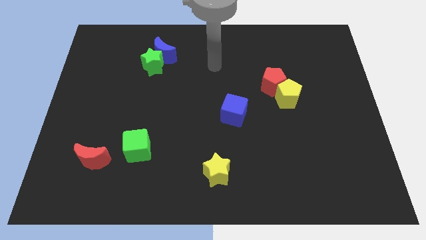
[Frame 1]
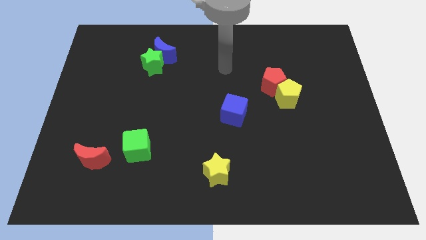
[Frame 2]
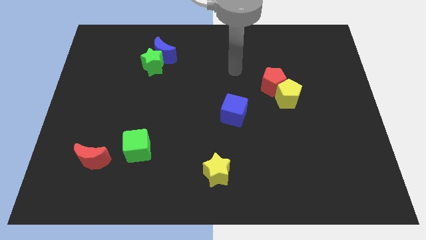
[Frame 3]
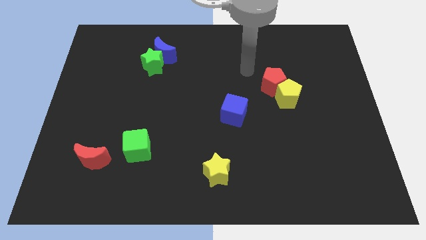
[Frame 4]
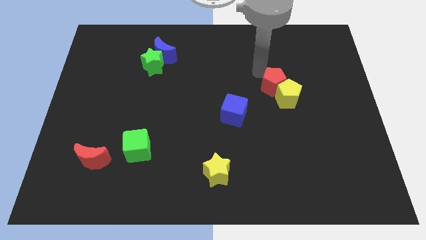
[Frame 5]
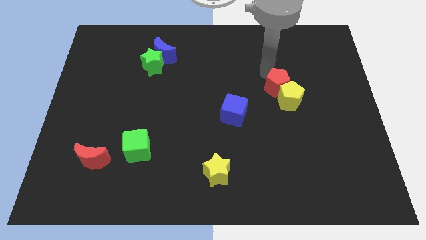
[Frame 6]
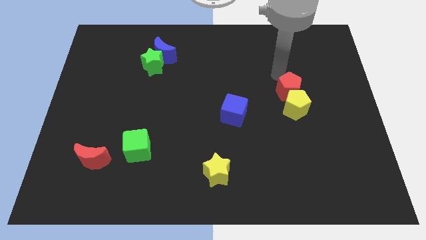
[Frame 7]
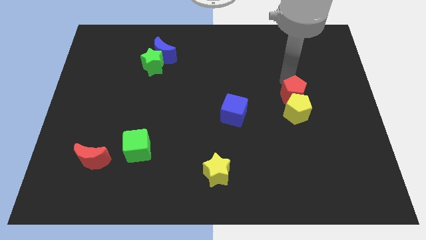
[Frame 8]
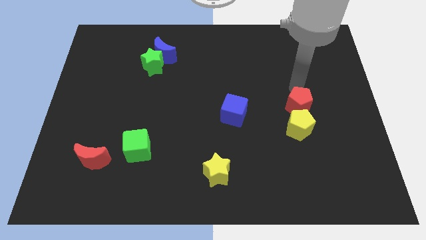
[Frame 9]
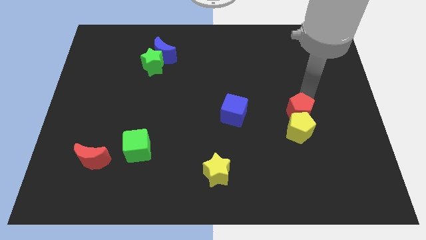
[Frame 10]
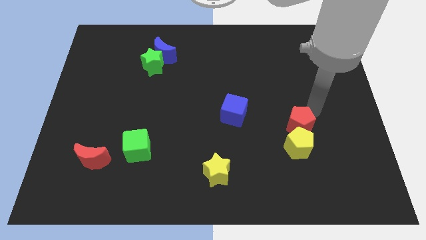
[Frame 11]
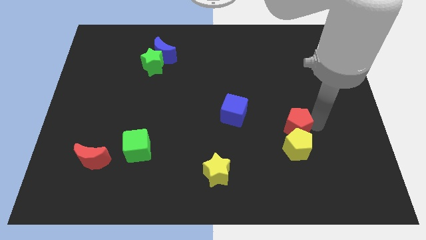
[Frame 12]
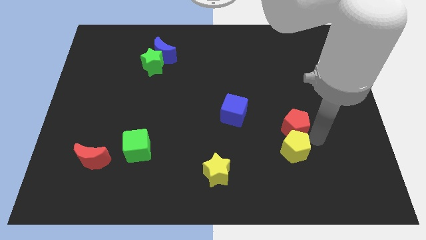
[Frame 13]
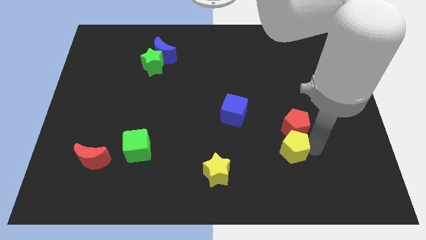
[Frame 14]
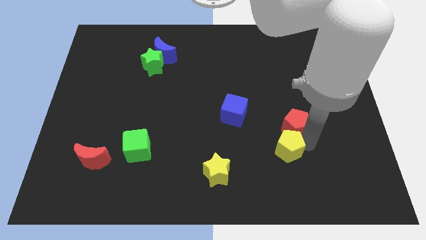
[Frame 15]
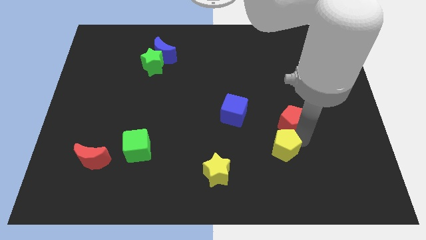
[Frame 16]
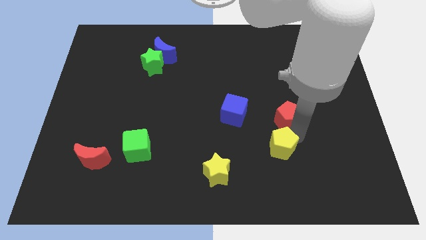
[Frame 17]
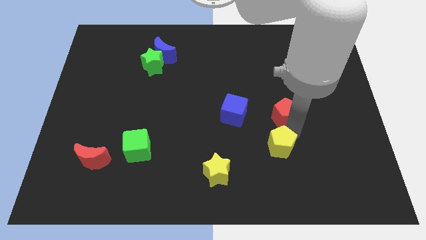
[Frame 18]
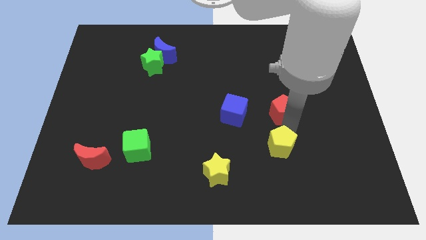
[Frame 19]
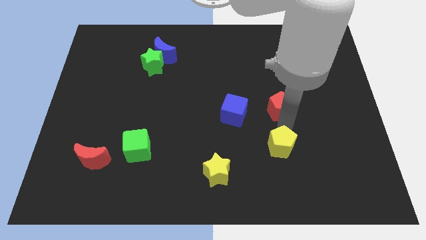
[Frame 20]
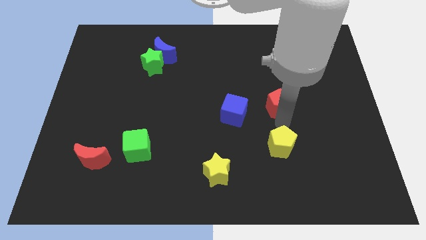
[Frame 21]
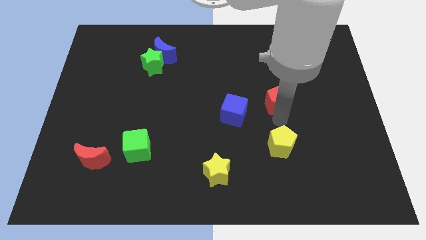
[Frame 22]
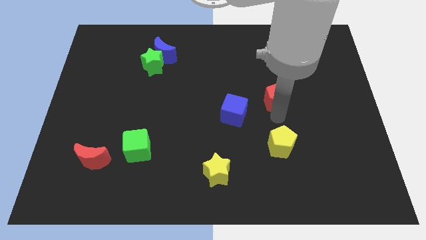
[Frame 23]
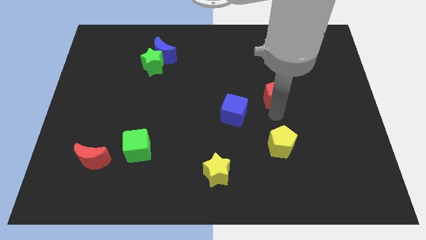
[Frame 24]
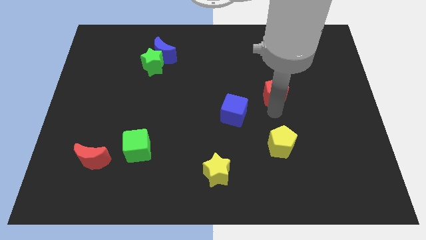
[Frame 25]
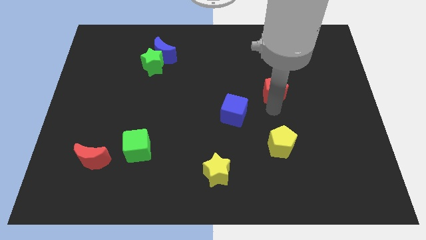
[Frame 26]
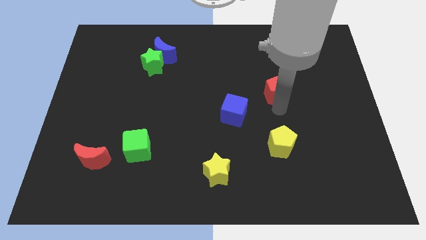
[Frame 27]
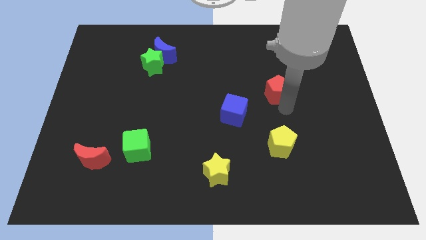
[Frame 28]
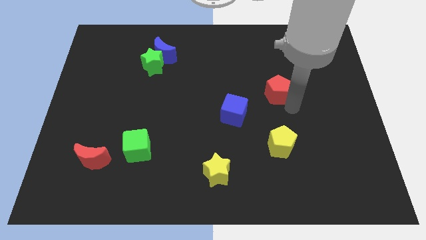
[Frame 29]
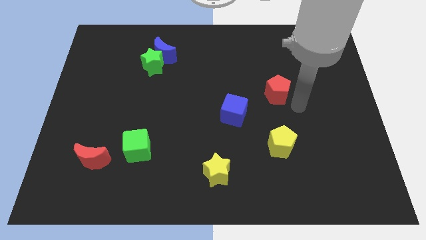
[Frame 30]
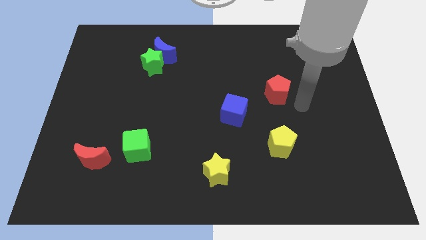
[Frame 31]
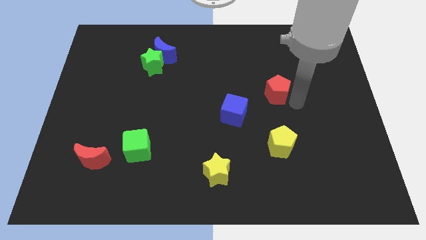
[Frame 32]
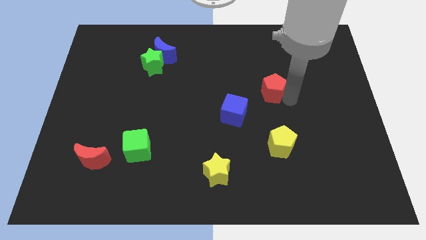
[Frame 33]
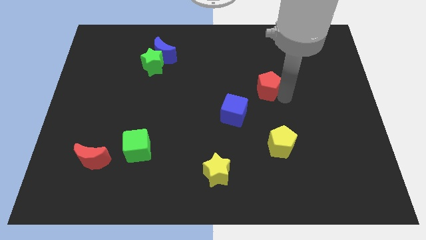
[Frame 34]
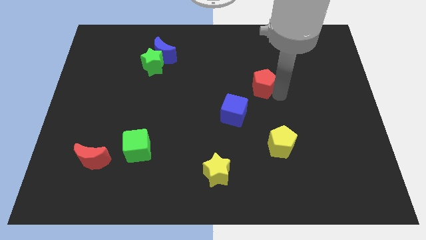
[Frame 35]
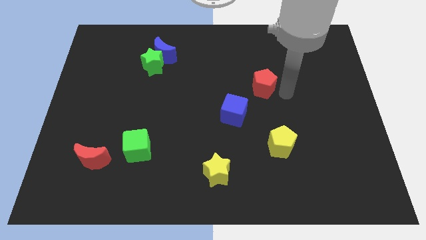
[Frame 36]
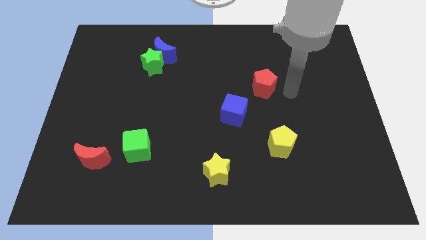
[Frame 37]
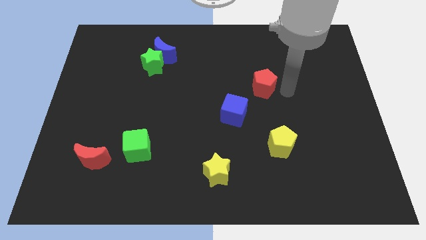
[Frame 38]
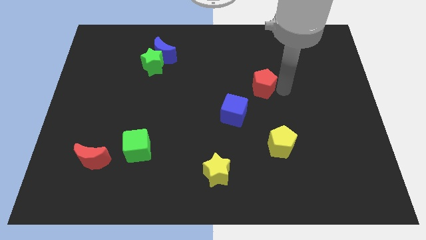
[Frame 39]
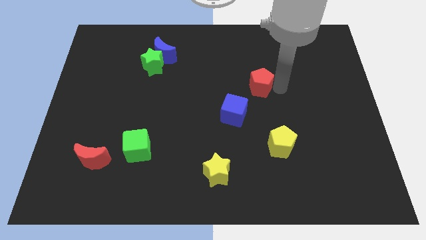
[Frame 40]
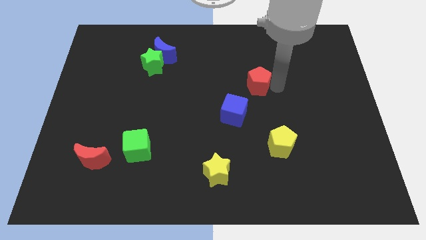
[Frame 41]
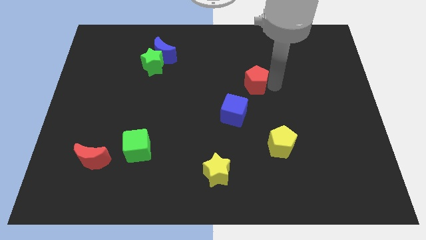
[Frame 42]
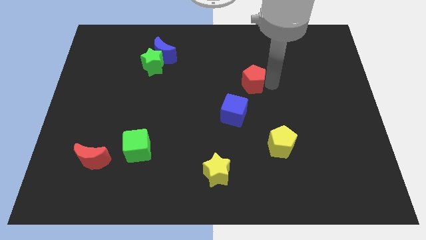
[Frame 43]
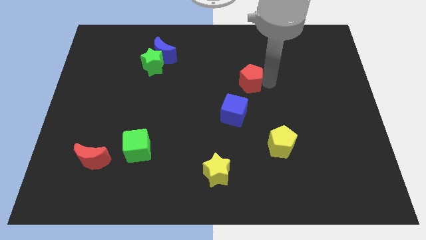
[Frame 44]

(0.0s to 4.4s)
push the red pentagon above the blue cube

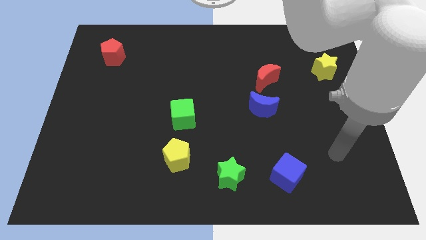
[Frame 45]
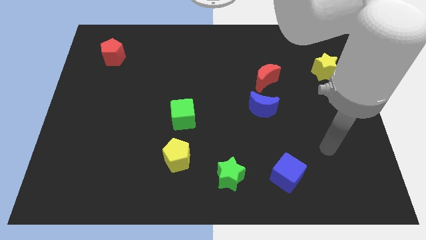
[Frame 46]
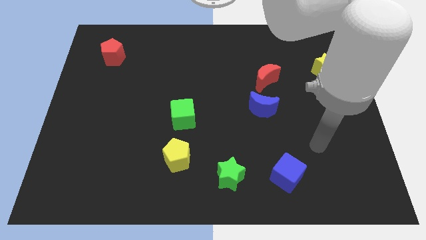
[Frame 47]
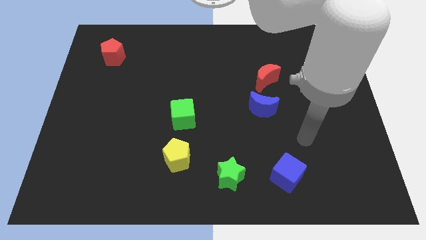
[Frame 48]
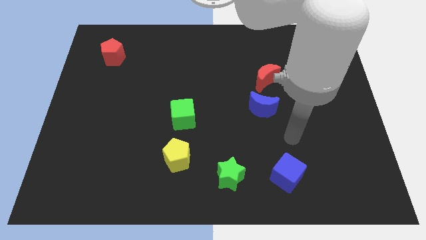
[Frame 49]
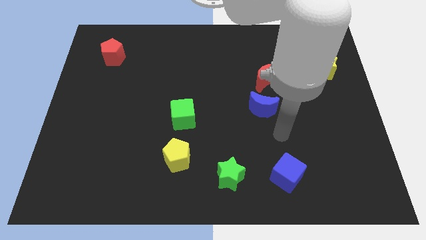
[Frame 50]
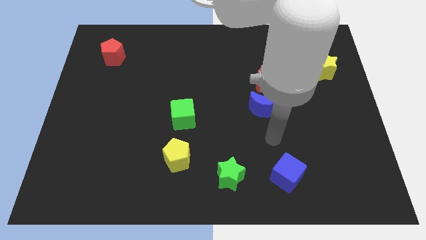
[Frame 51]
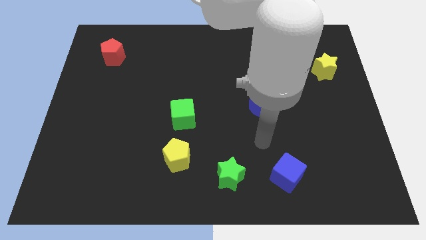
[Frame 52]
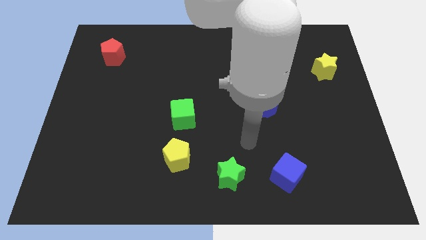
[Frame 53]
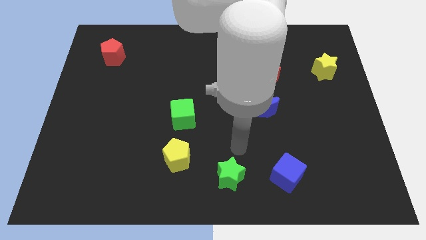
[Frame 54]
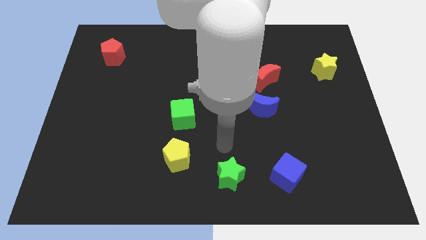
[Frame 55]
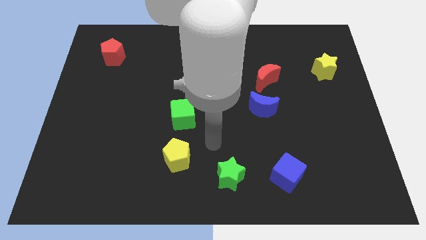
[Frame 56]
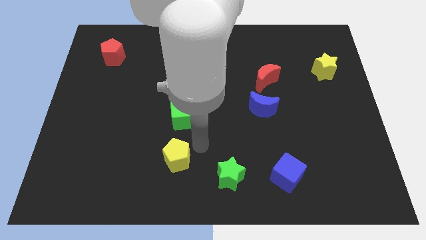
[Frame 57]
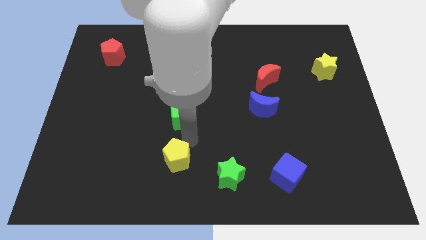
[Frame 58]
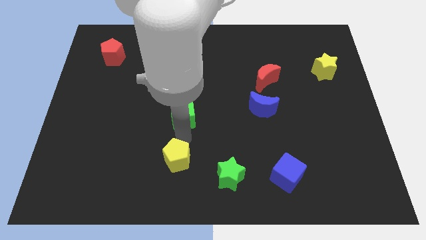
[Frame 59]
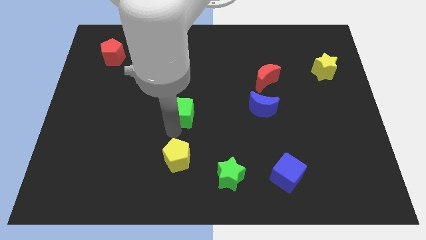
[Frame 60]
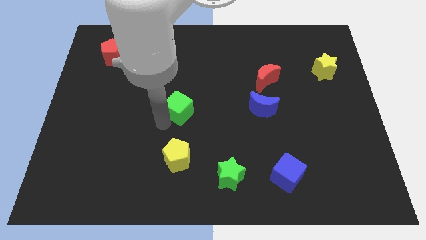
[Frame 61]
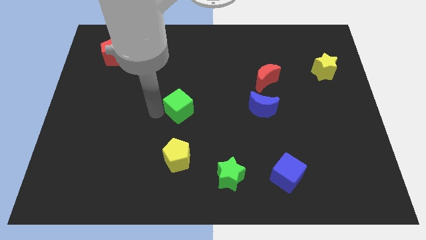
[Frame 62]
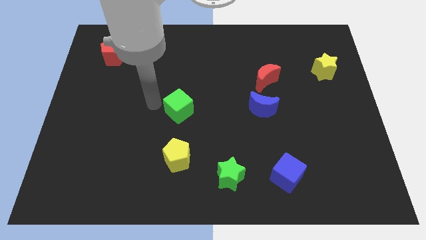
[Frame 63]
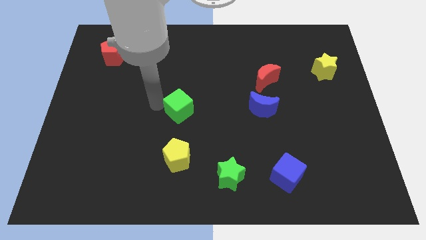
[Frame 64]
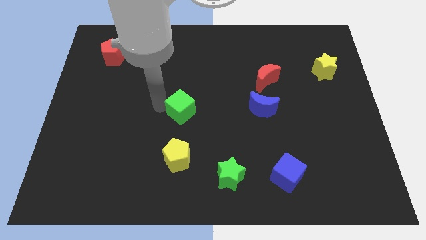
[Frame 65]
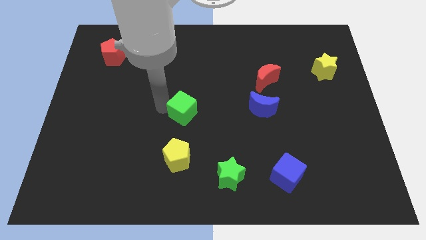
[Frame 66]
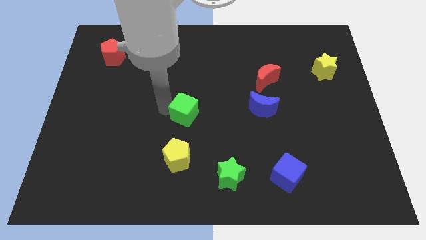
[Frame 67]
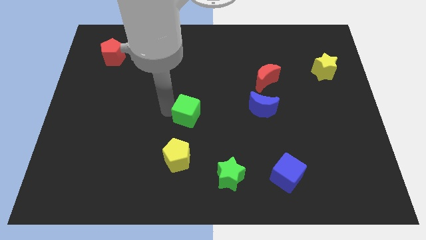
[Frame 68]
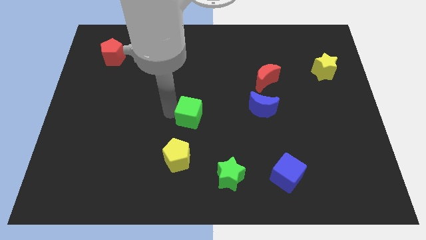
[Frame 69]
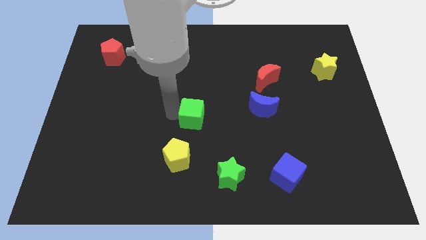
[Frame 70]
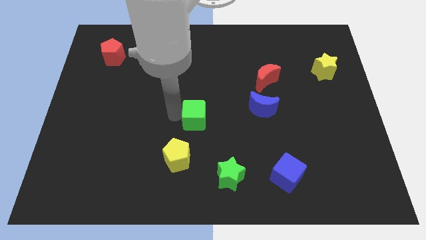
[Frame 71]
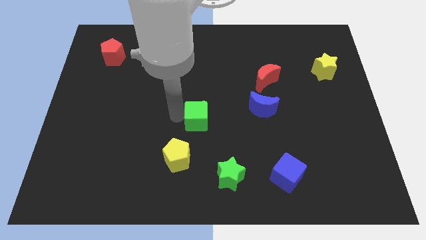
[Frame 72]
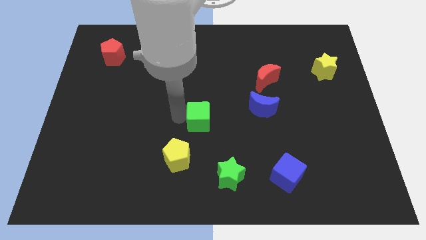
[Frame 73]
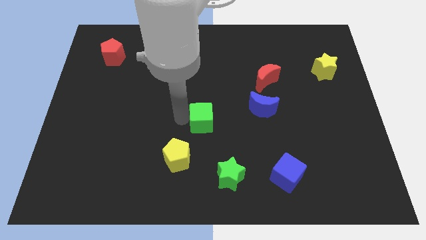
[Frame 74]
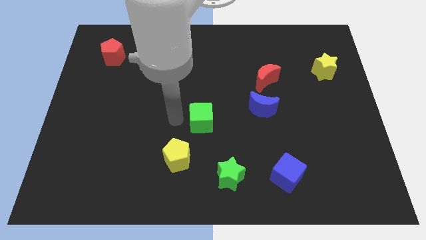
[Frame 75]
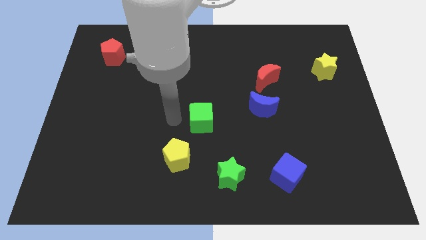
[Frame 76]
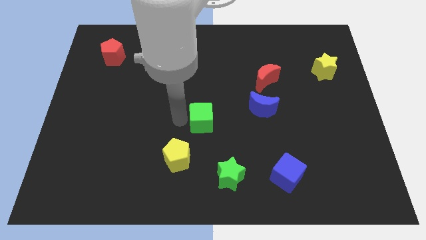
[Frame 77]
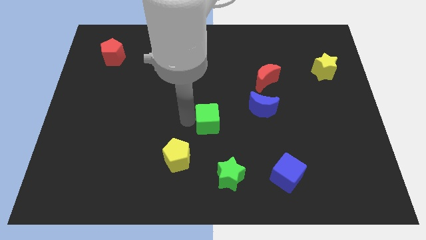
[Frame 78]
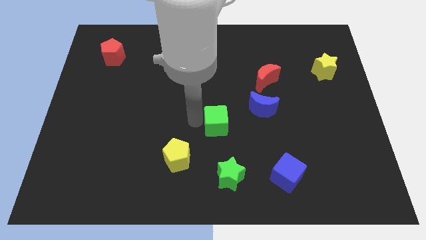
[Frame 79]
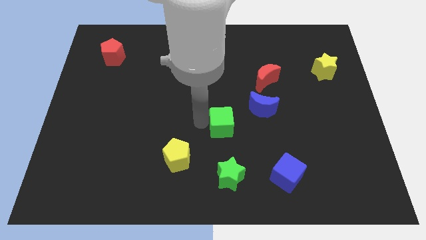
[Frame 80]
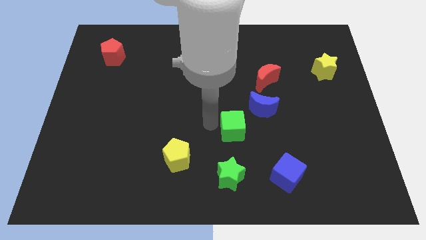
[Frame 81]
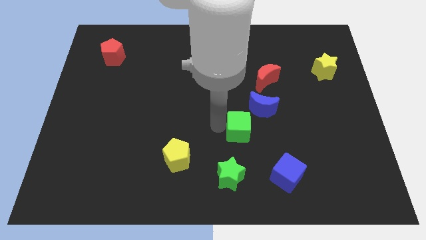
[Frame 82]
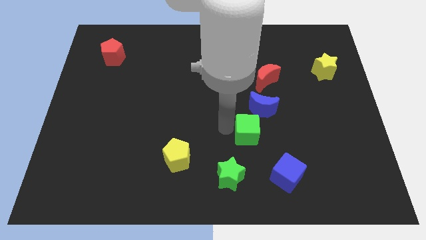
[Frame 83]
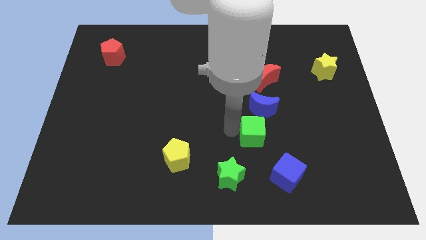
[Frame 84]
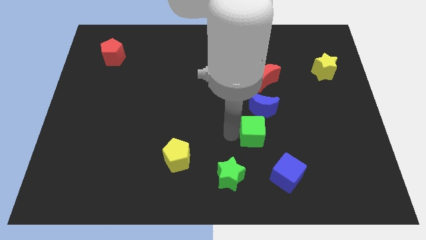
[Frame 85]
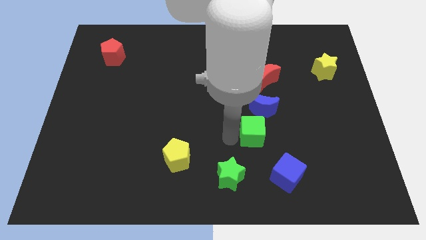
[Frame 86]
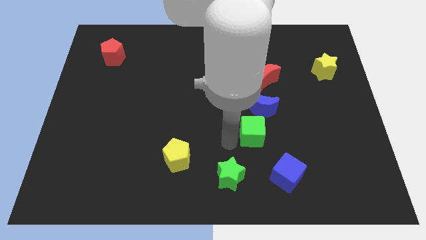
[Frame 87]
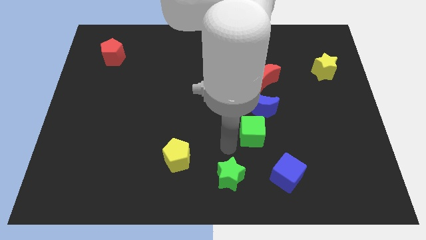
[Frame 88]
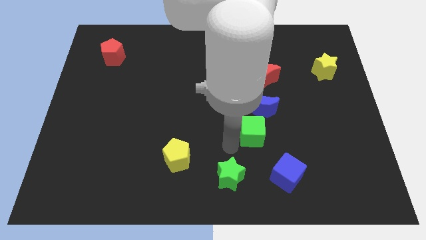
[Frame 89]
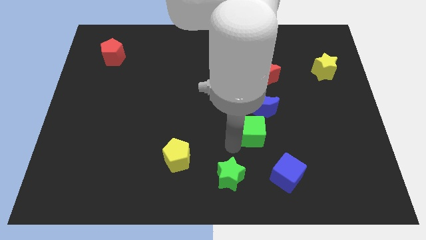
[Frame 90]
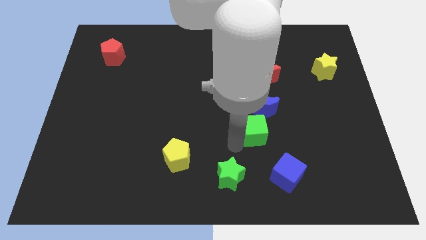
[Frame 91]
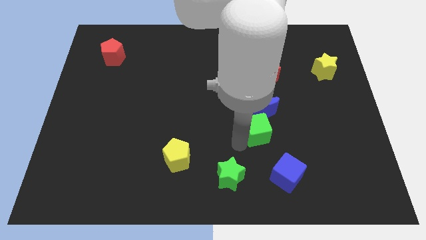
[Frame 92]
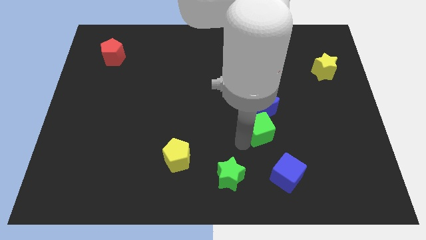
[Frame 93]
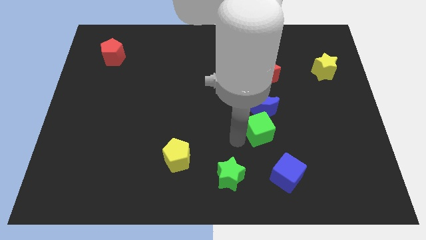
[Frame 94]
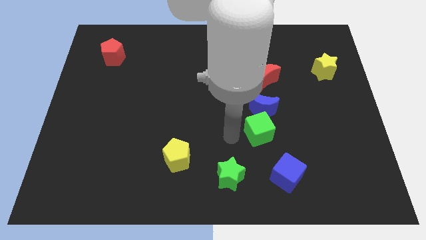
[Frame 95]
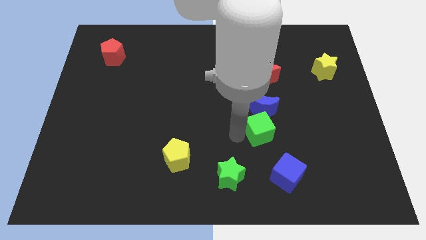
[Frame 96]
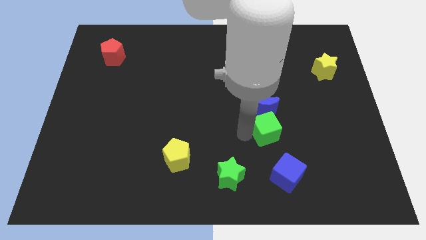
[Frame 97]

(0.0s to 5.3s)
slide the green cube diagonally down and to the right of the blue moon
